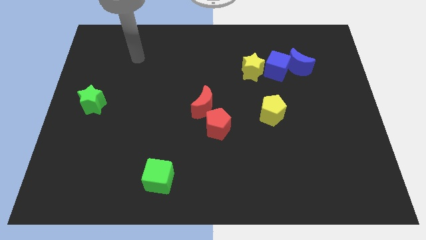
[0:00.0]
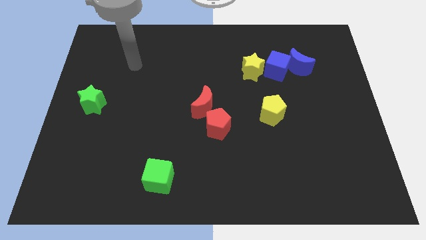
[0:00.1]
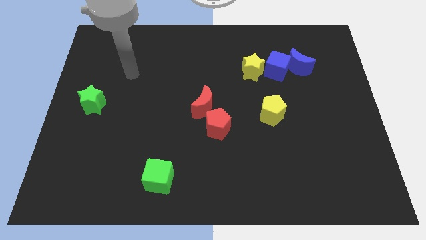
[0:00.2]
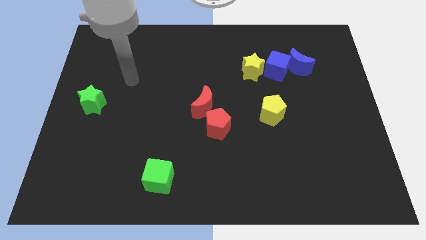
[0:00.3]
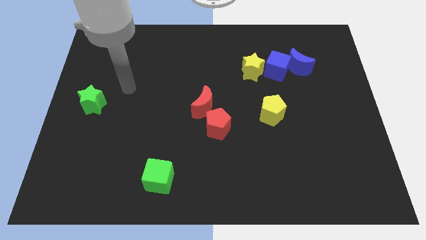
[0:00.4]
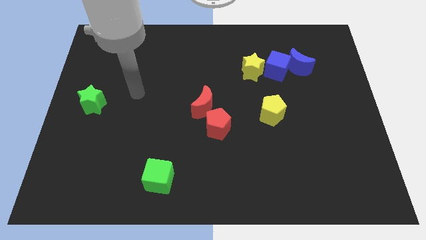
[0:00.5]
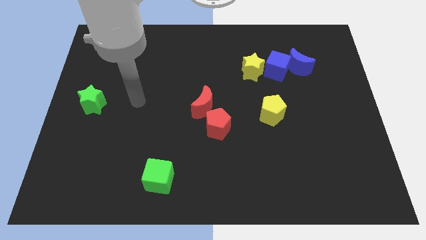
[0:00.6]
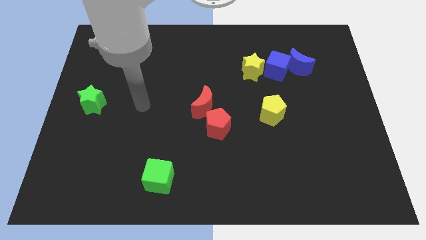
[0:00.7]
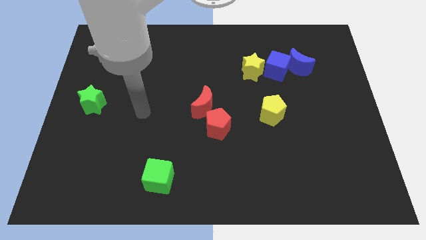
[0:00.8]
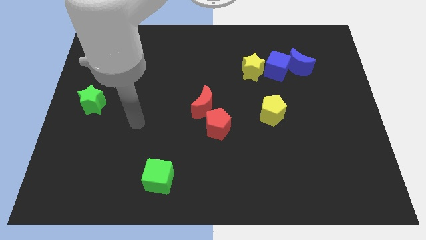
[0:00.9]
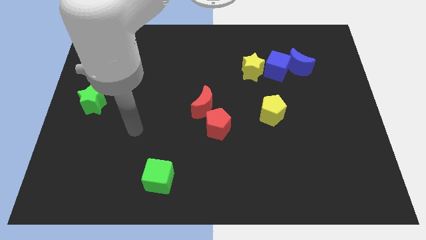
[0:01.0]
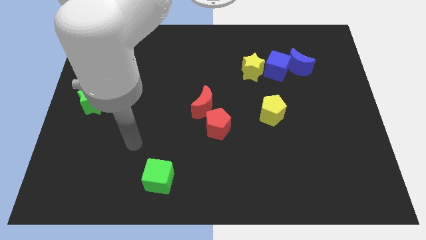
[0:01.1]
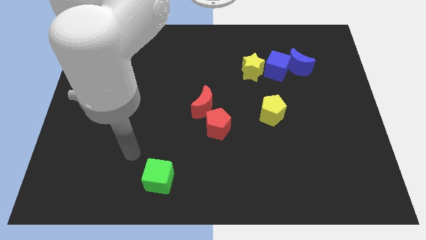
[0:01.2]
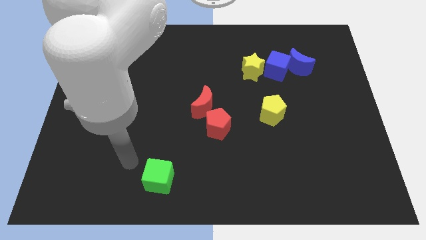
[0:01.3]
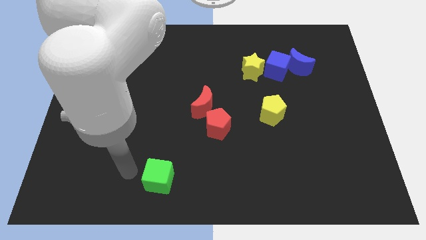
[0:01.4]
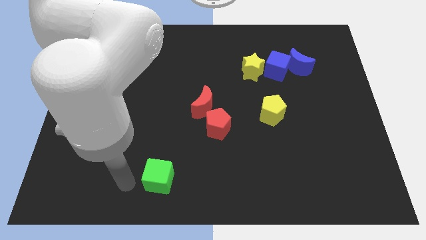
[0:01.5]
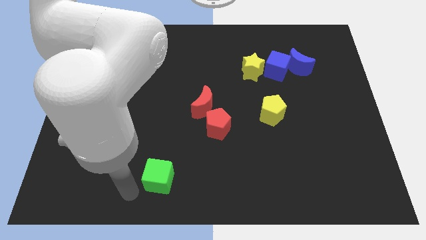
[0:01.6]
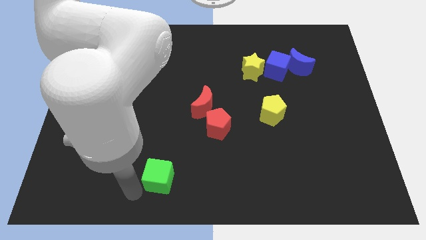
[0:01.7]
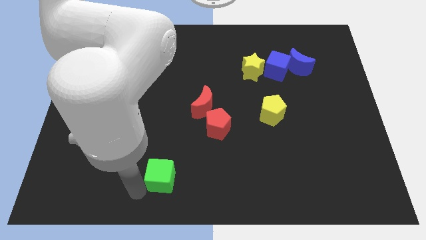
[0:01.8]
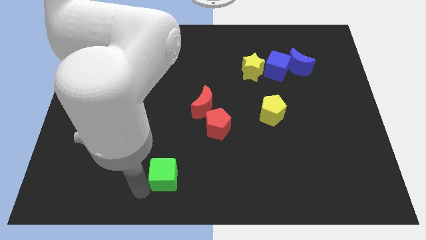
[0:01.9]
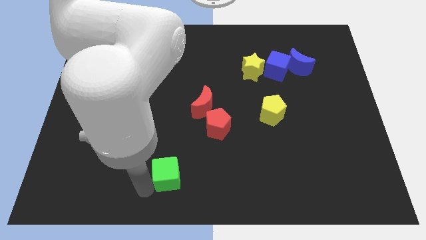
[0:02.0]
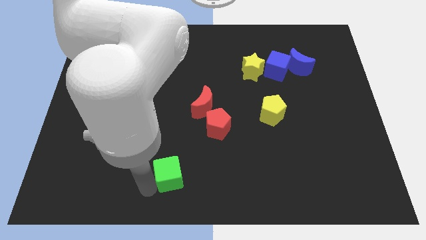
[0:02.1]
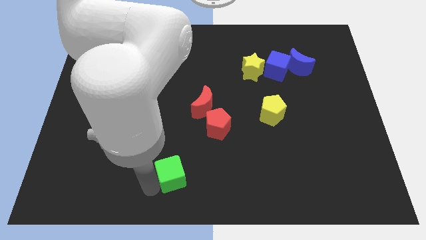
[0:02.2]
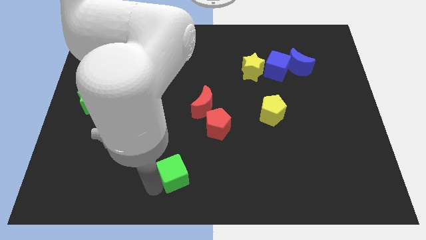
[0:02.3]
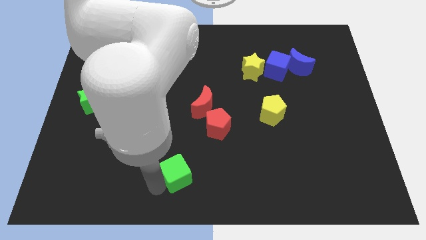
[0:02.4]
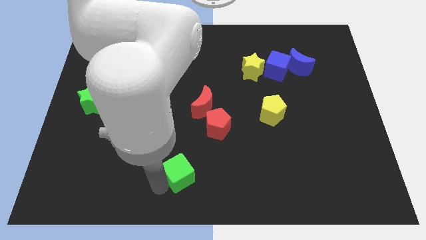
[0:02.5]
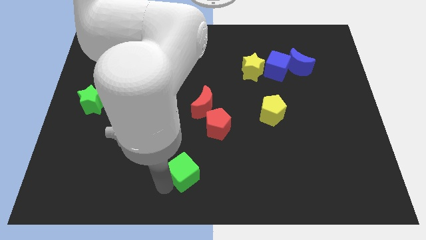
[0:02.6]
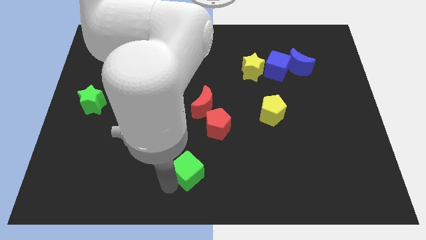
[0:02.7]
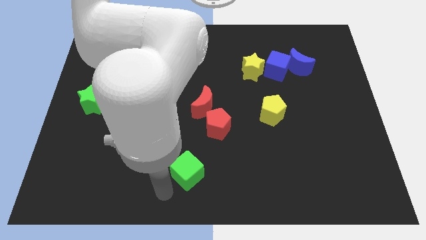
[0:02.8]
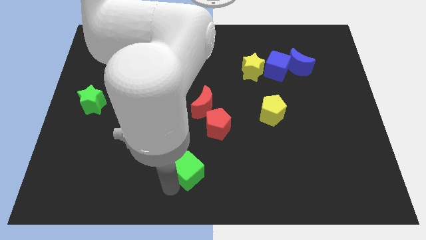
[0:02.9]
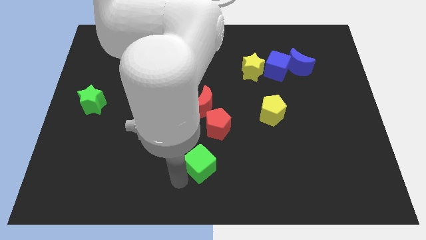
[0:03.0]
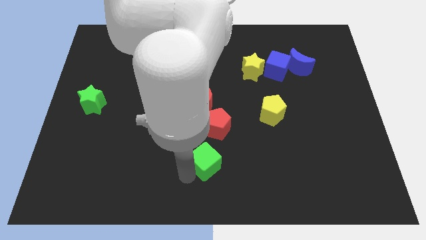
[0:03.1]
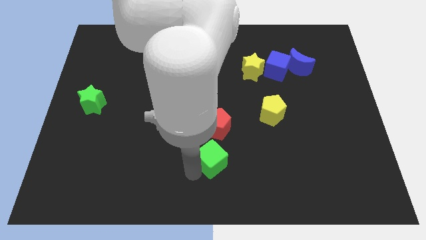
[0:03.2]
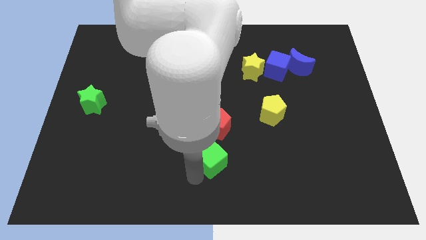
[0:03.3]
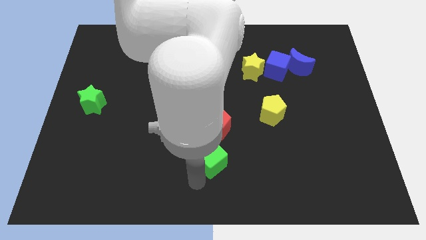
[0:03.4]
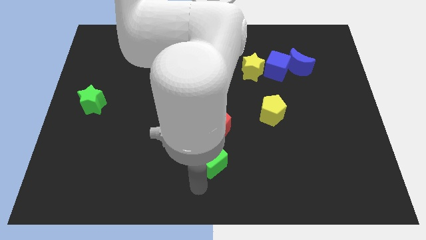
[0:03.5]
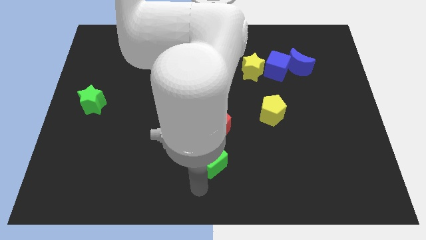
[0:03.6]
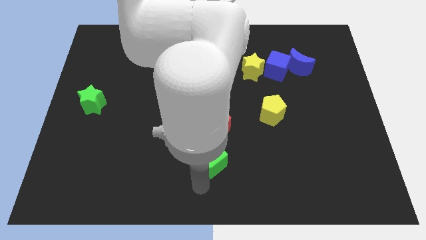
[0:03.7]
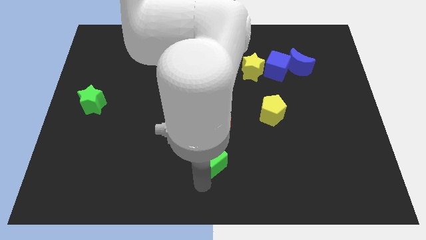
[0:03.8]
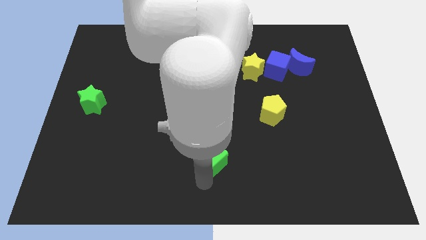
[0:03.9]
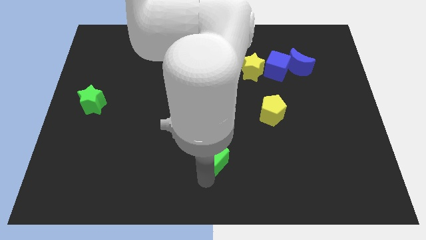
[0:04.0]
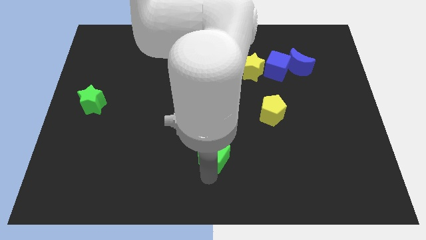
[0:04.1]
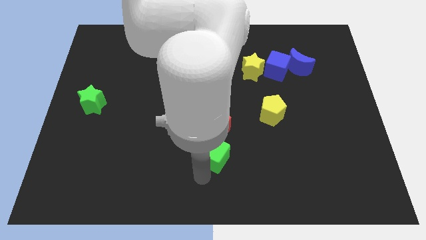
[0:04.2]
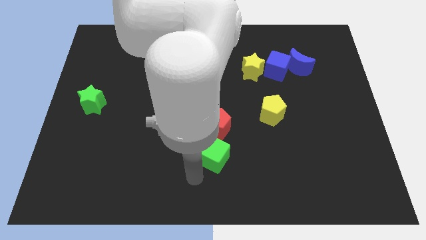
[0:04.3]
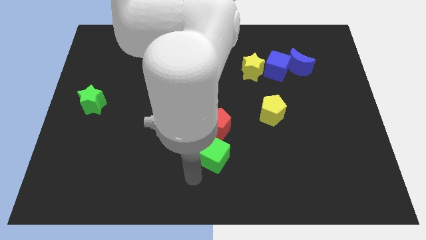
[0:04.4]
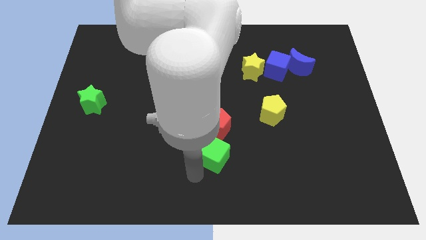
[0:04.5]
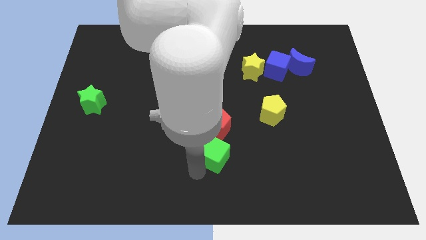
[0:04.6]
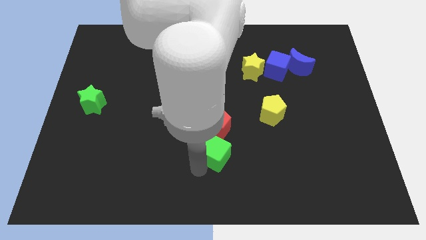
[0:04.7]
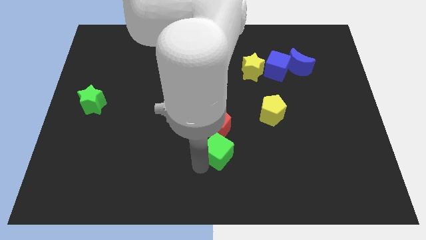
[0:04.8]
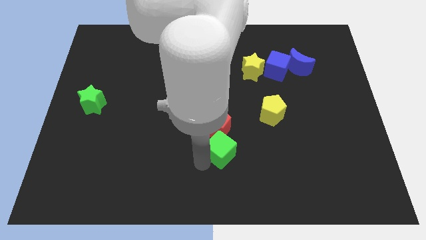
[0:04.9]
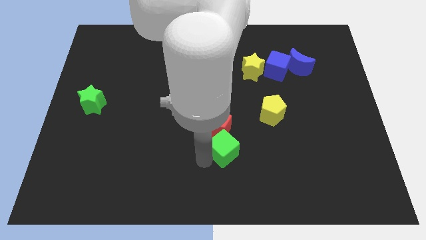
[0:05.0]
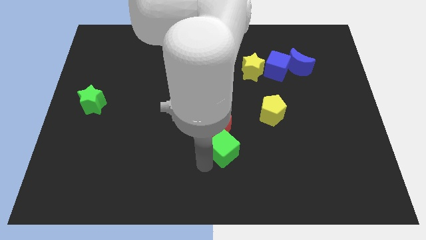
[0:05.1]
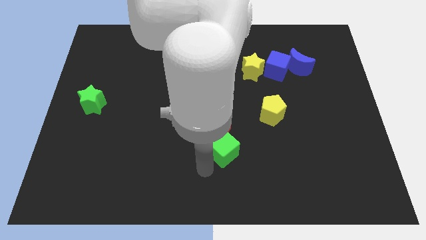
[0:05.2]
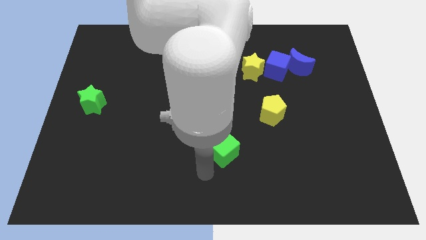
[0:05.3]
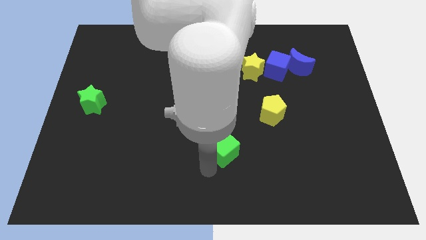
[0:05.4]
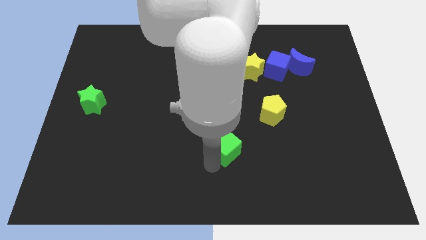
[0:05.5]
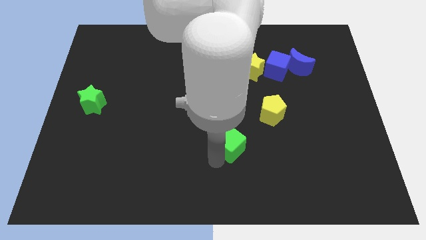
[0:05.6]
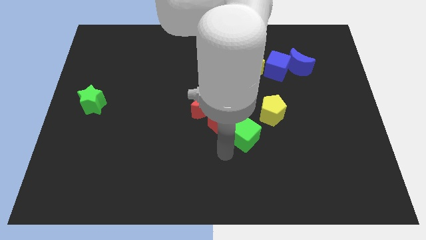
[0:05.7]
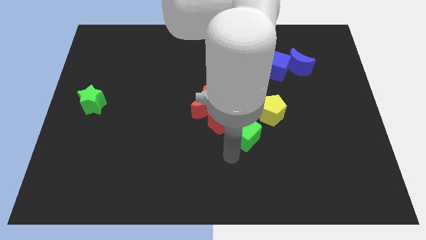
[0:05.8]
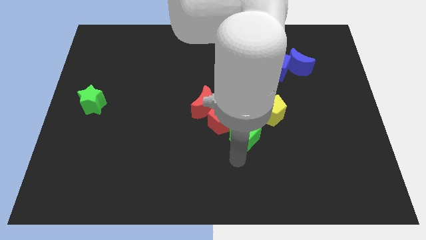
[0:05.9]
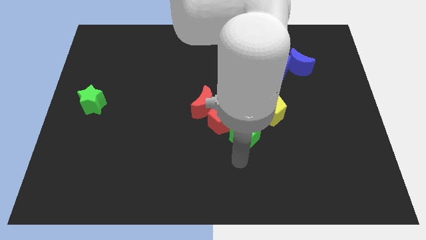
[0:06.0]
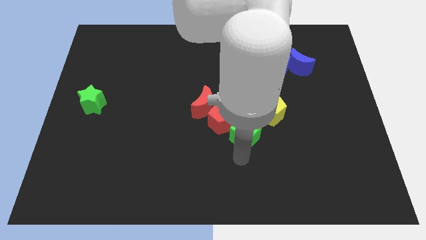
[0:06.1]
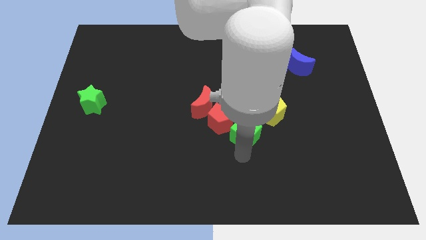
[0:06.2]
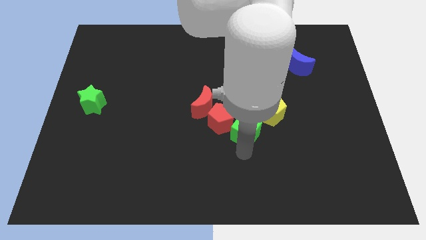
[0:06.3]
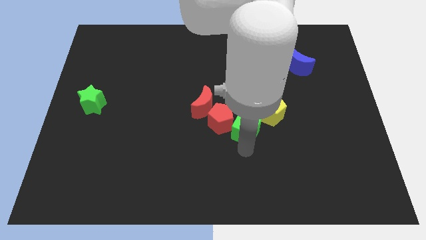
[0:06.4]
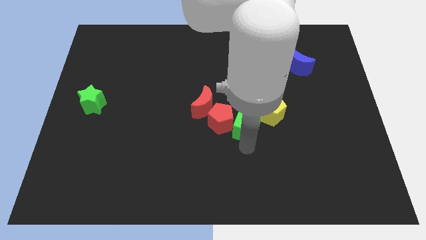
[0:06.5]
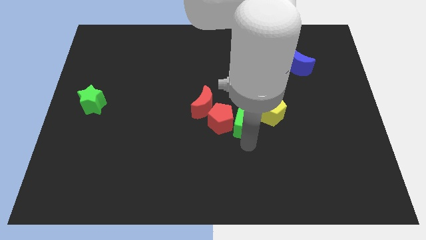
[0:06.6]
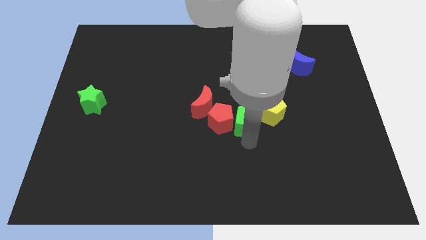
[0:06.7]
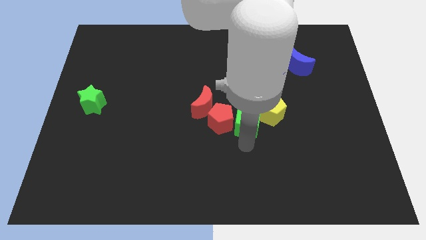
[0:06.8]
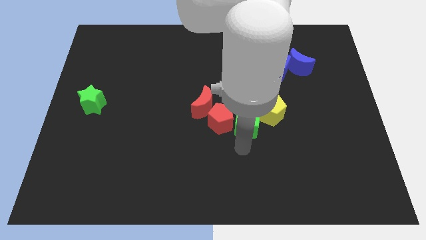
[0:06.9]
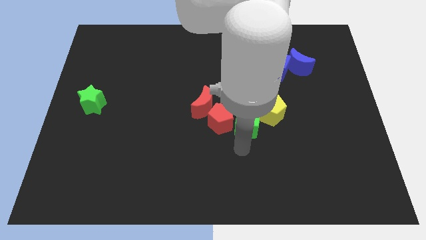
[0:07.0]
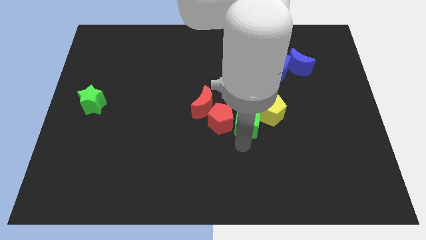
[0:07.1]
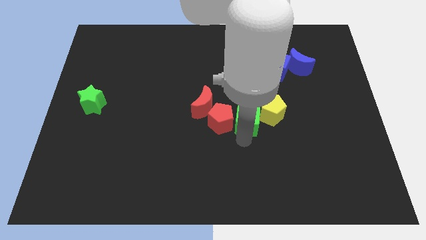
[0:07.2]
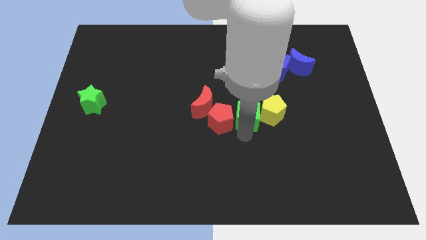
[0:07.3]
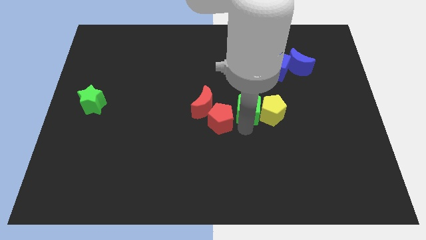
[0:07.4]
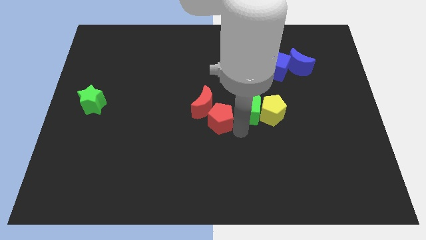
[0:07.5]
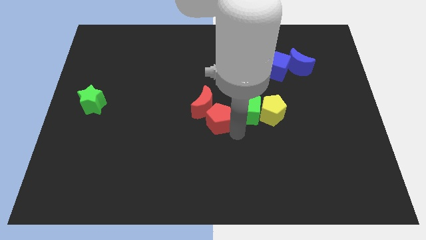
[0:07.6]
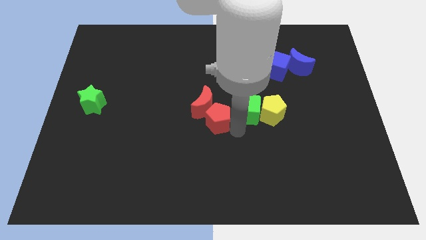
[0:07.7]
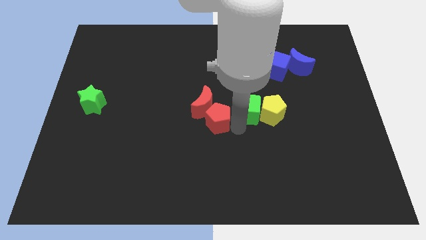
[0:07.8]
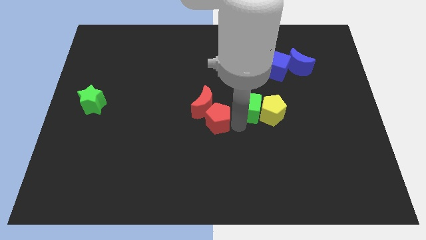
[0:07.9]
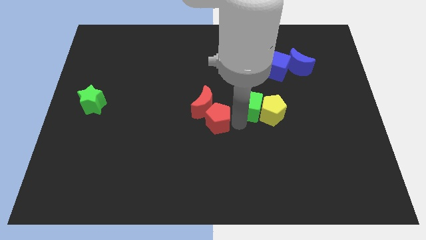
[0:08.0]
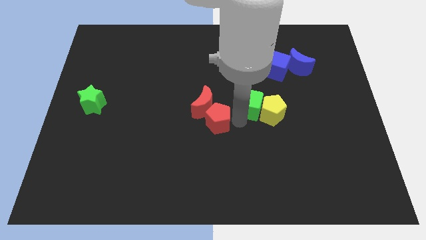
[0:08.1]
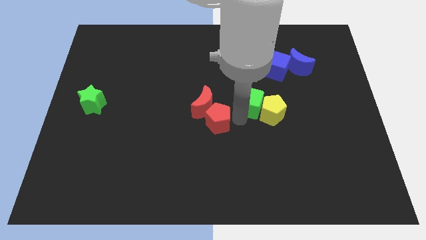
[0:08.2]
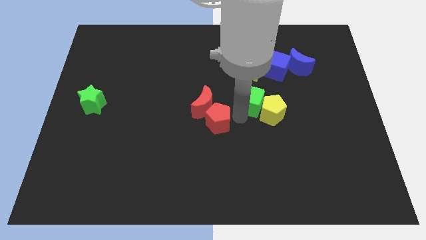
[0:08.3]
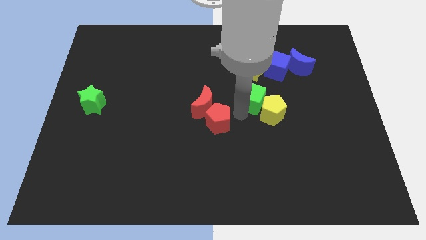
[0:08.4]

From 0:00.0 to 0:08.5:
slide the green cube above the yellow pentagon
